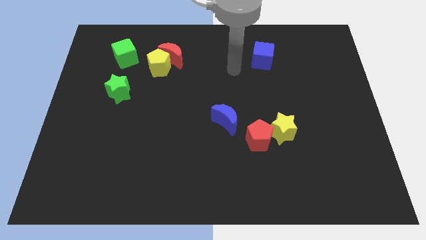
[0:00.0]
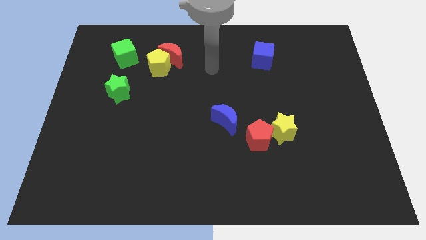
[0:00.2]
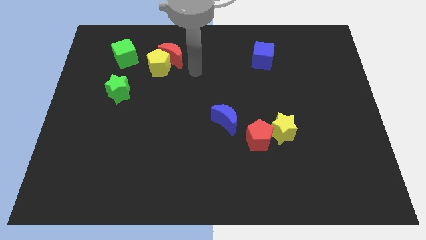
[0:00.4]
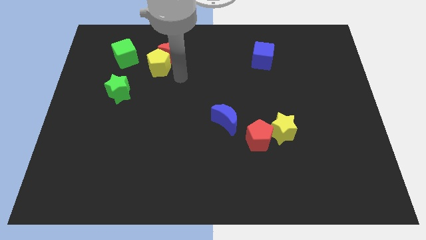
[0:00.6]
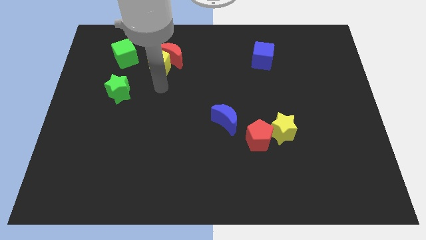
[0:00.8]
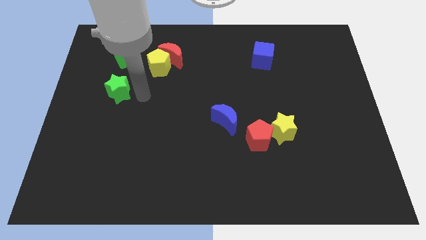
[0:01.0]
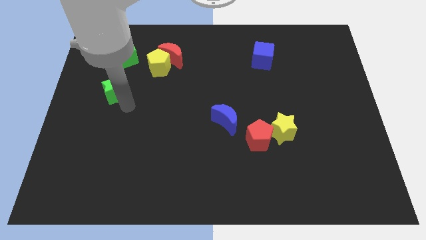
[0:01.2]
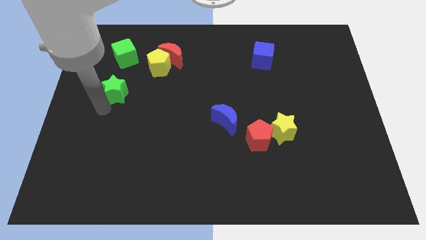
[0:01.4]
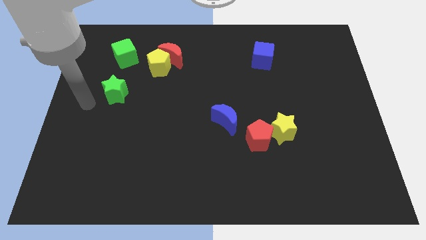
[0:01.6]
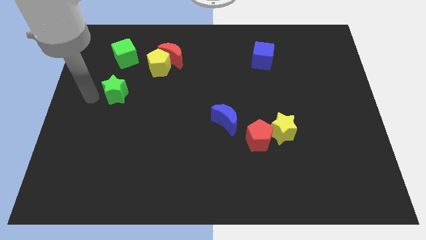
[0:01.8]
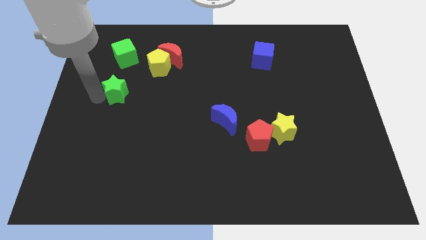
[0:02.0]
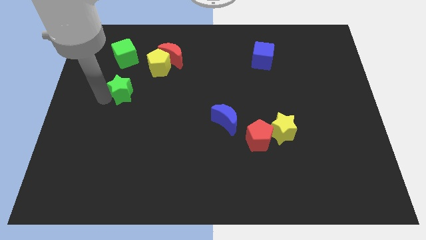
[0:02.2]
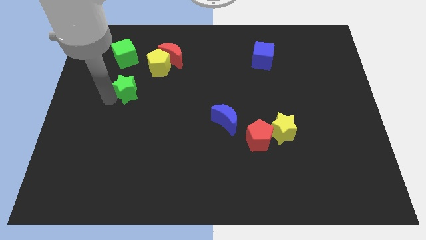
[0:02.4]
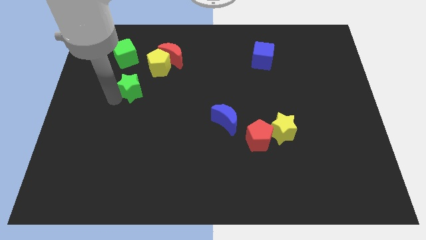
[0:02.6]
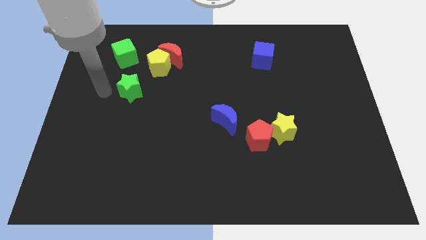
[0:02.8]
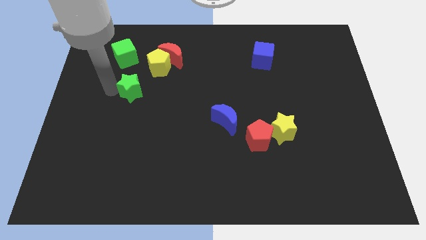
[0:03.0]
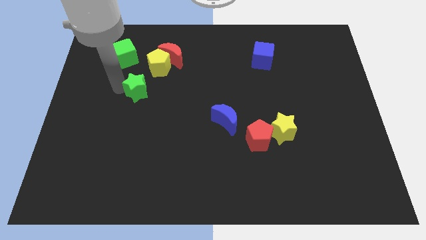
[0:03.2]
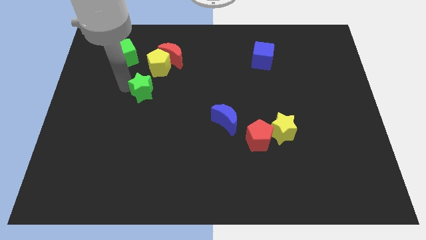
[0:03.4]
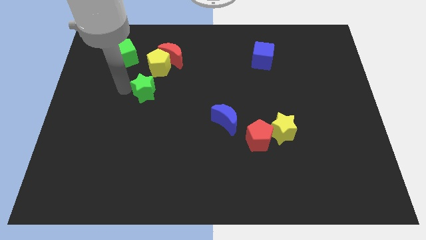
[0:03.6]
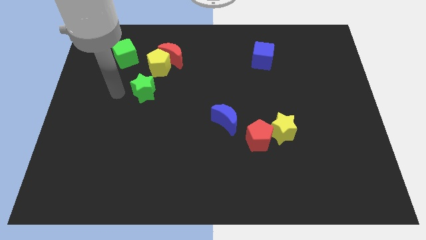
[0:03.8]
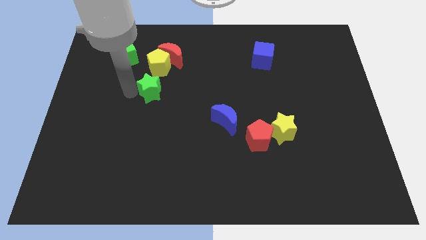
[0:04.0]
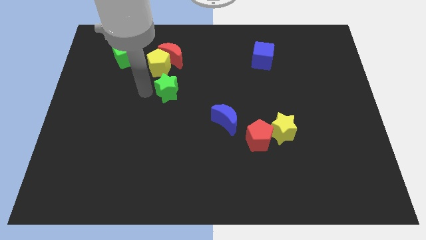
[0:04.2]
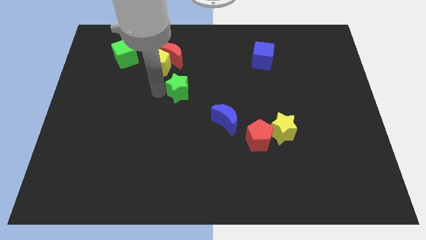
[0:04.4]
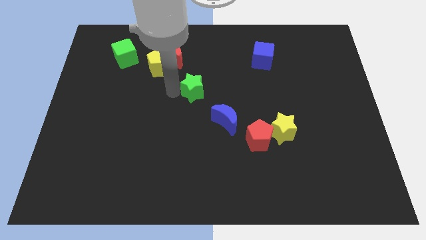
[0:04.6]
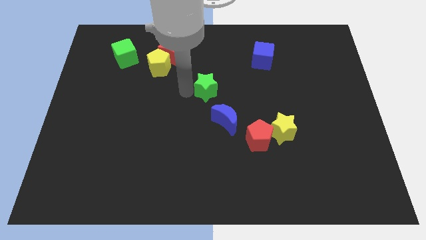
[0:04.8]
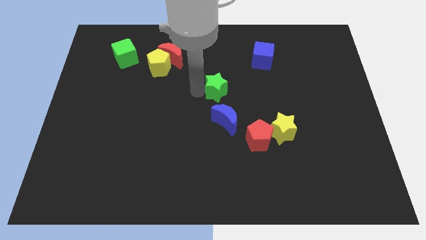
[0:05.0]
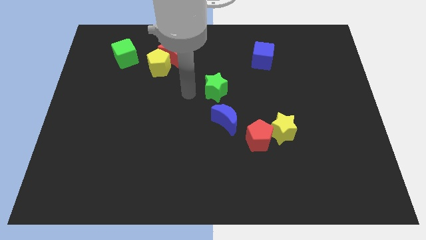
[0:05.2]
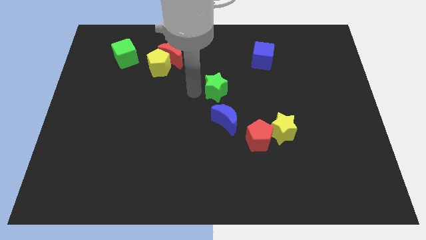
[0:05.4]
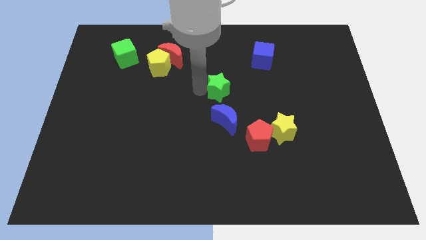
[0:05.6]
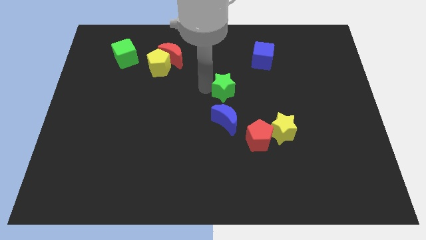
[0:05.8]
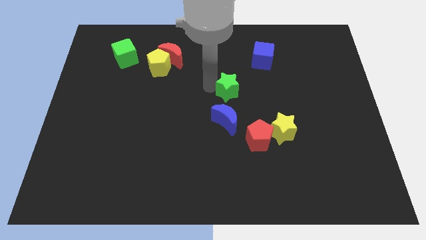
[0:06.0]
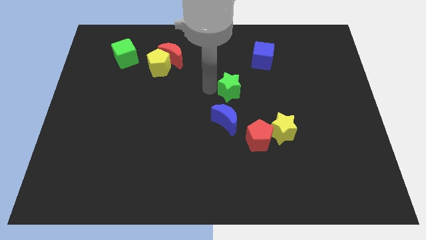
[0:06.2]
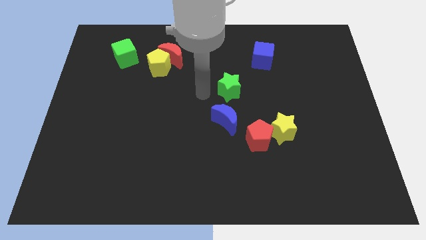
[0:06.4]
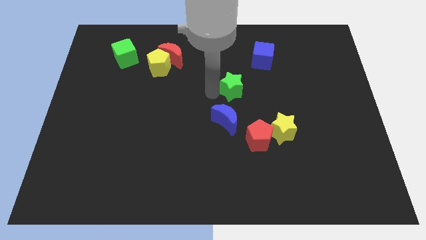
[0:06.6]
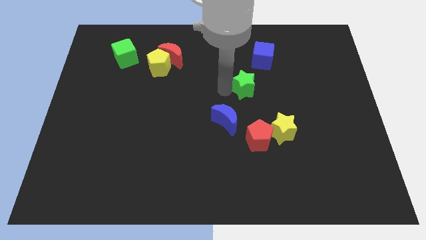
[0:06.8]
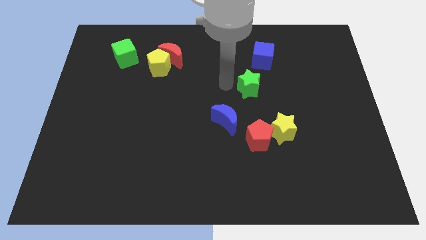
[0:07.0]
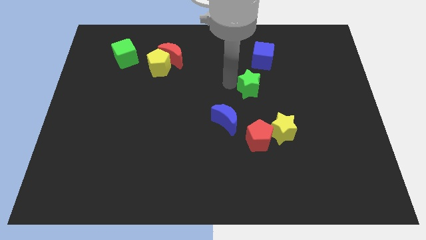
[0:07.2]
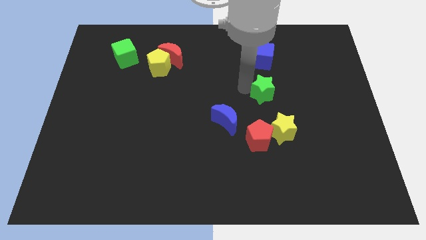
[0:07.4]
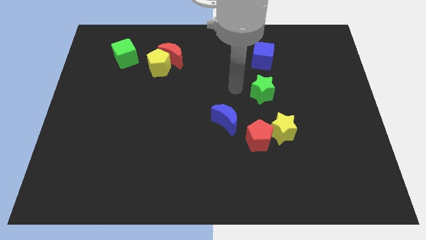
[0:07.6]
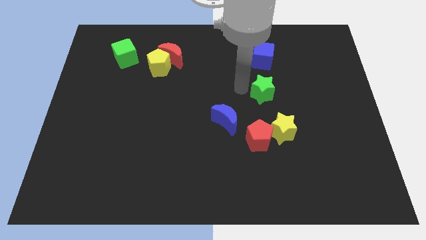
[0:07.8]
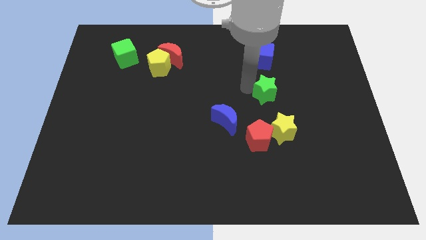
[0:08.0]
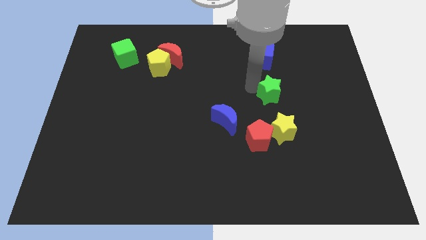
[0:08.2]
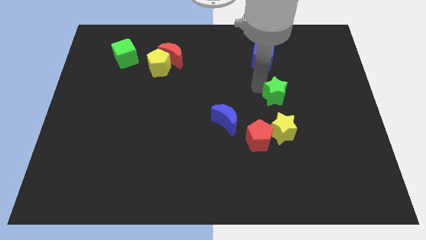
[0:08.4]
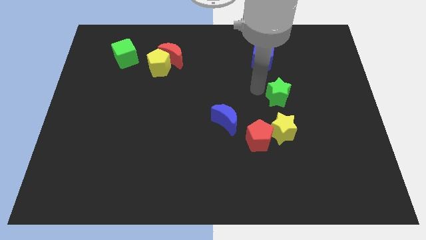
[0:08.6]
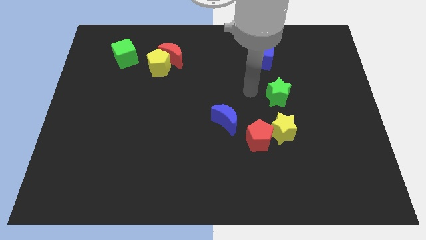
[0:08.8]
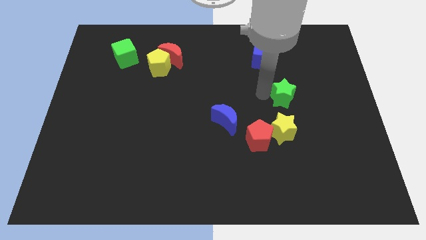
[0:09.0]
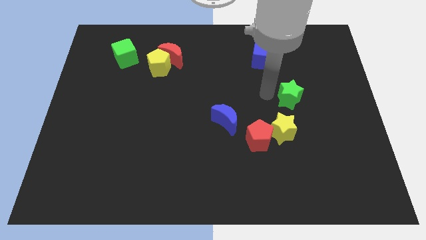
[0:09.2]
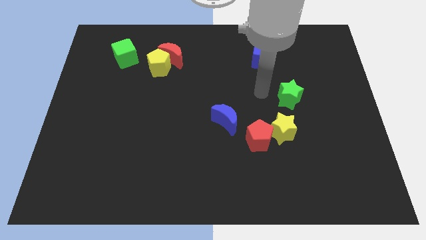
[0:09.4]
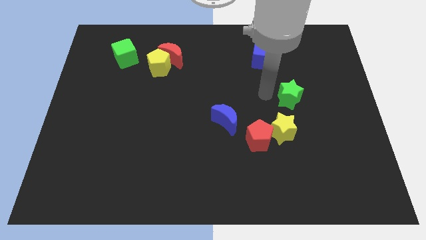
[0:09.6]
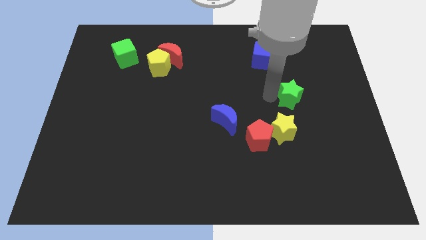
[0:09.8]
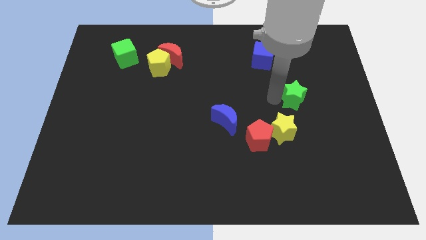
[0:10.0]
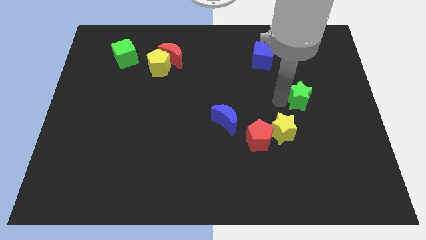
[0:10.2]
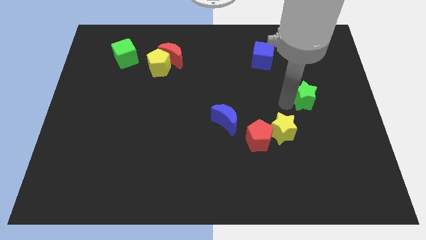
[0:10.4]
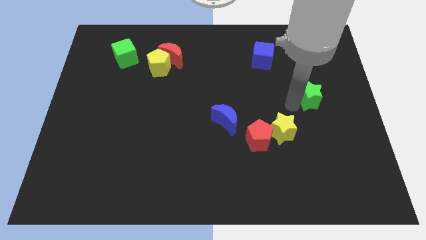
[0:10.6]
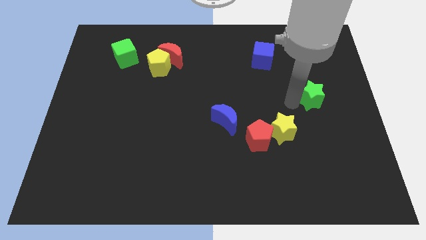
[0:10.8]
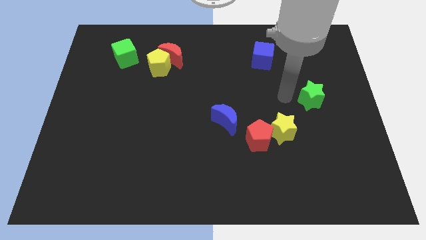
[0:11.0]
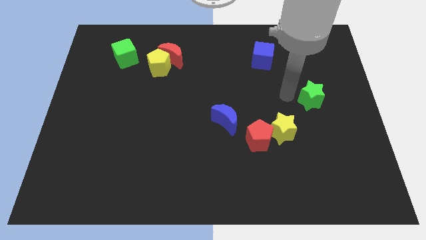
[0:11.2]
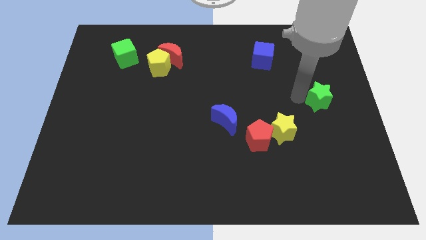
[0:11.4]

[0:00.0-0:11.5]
slide the green star to the center right

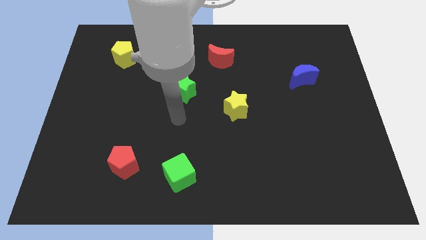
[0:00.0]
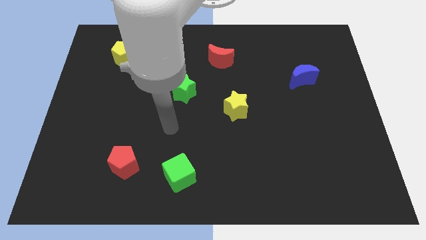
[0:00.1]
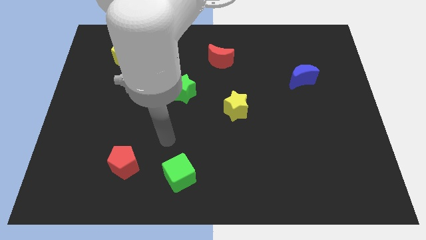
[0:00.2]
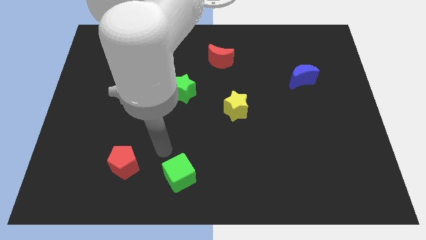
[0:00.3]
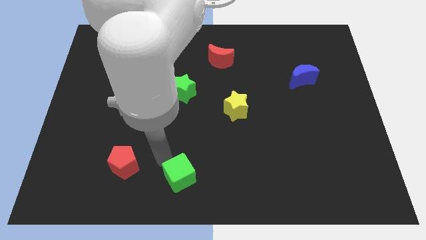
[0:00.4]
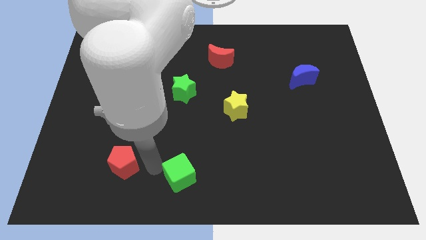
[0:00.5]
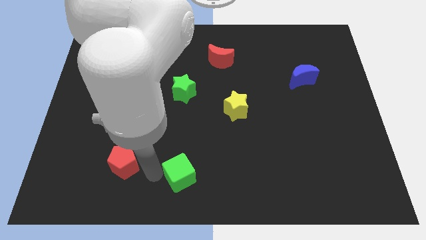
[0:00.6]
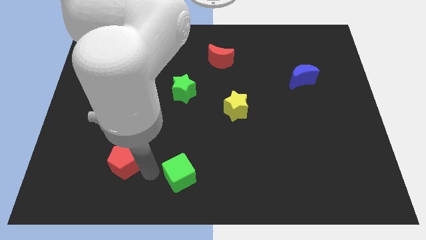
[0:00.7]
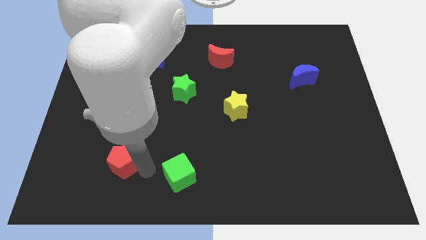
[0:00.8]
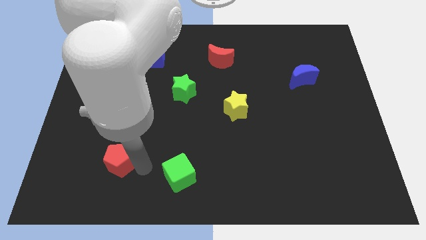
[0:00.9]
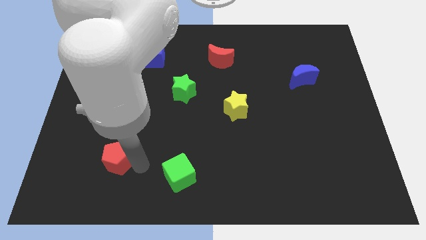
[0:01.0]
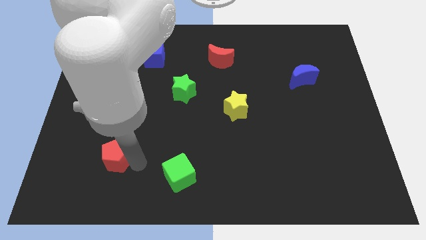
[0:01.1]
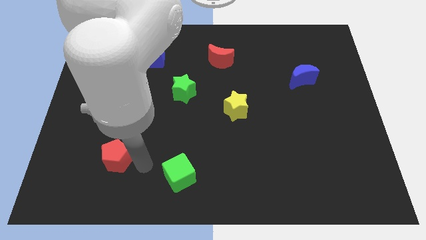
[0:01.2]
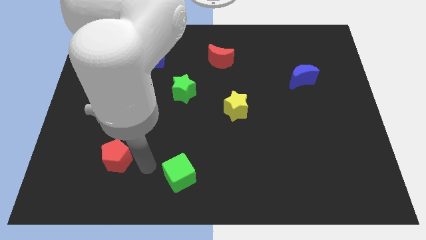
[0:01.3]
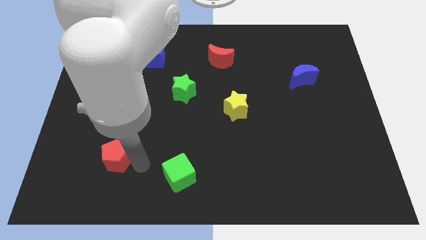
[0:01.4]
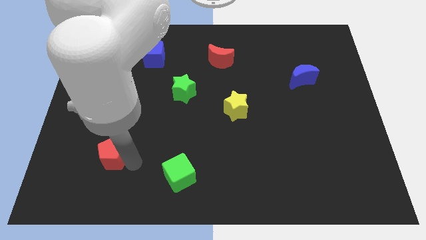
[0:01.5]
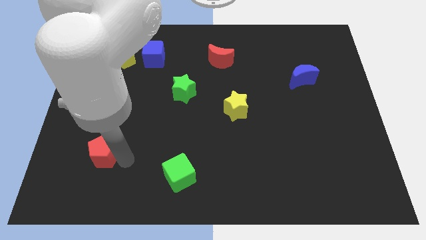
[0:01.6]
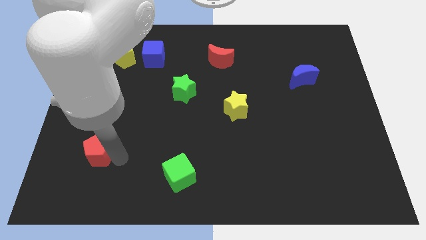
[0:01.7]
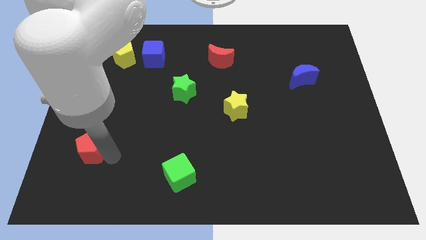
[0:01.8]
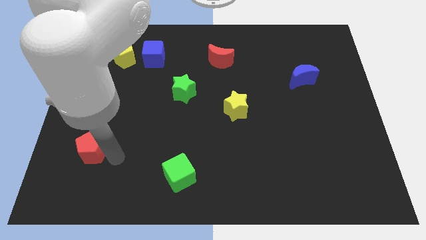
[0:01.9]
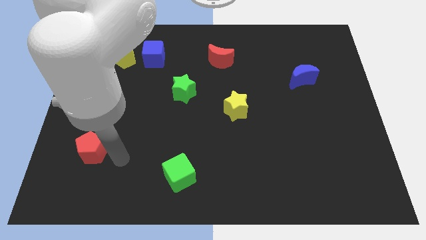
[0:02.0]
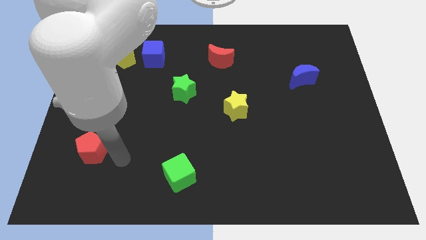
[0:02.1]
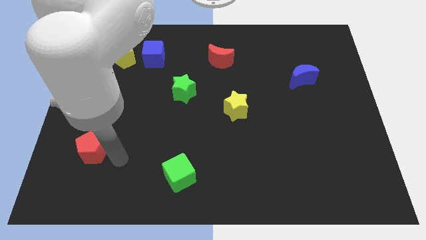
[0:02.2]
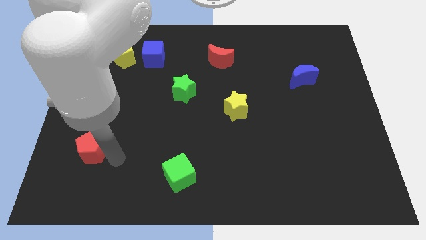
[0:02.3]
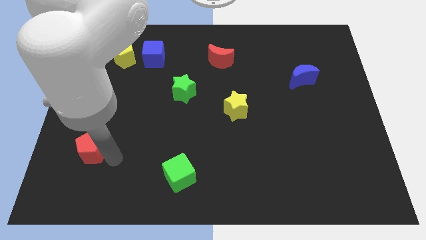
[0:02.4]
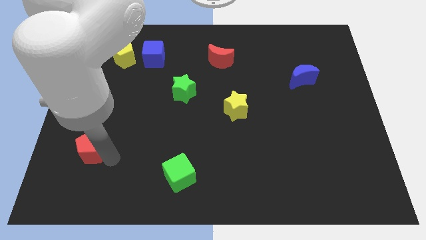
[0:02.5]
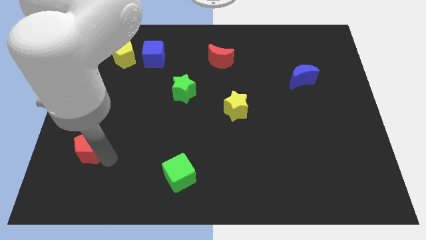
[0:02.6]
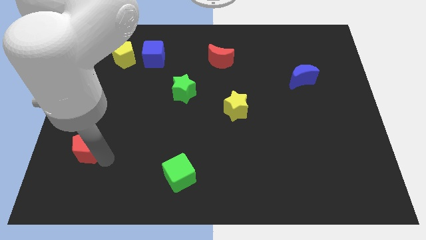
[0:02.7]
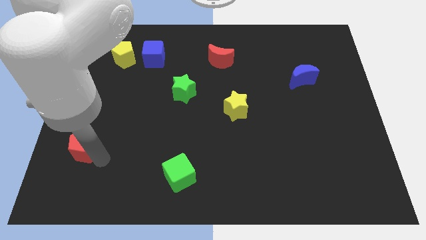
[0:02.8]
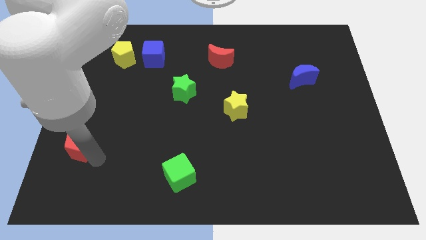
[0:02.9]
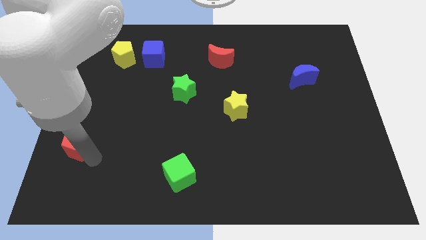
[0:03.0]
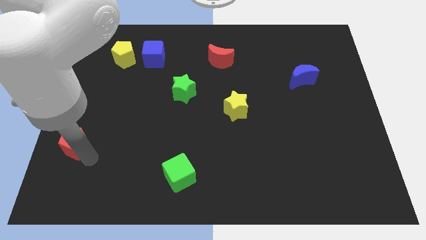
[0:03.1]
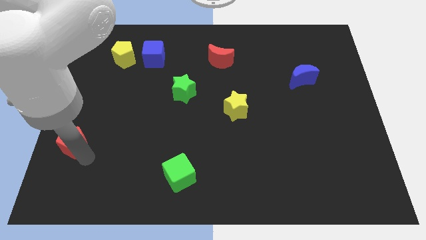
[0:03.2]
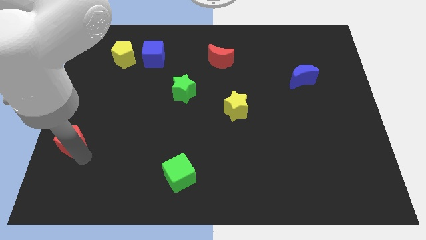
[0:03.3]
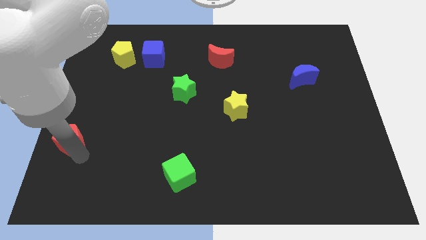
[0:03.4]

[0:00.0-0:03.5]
push the red pentagon to the left side
